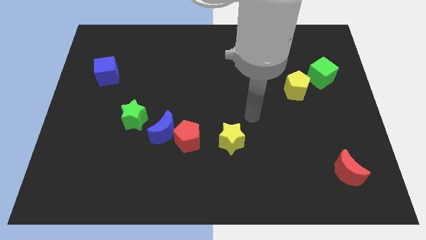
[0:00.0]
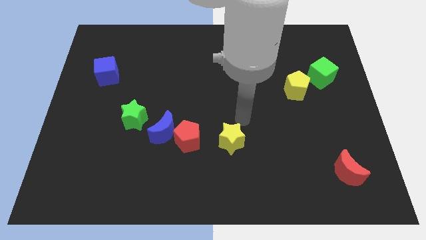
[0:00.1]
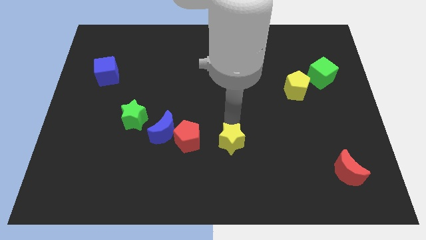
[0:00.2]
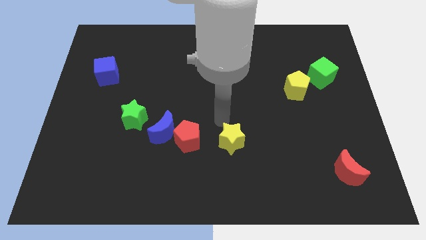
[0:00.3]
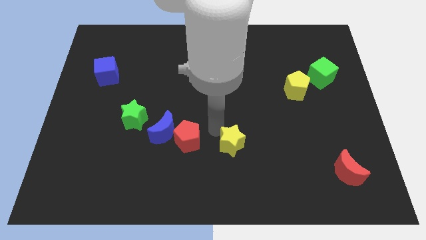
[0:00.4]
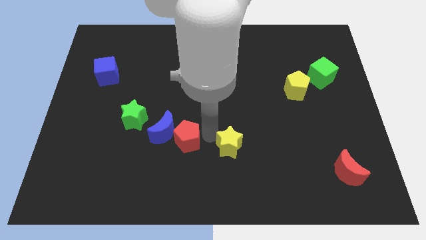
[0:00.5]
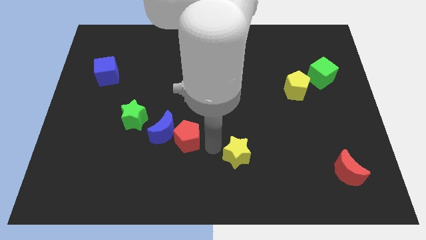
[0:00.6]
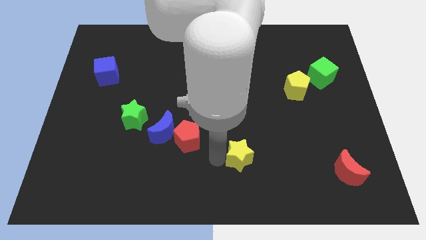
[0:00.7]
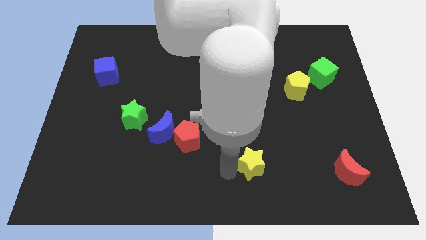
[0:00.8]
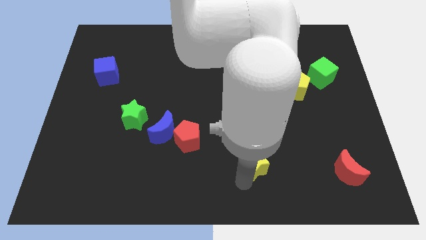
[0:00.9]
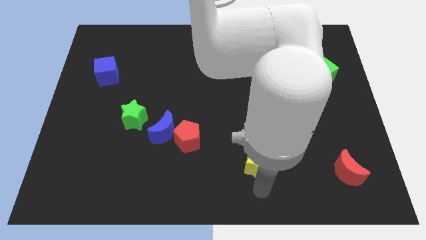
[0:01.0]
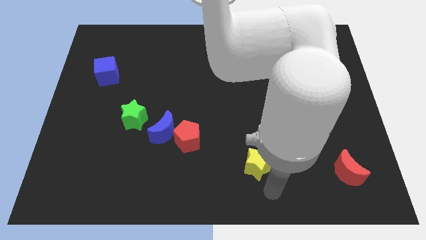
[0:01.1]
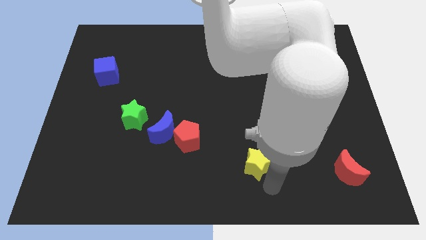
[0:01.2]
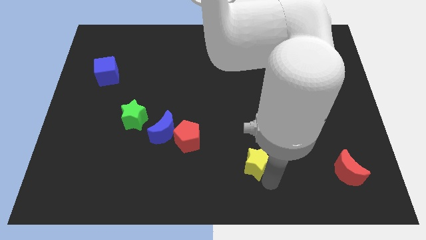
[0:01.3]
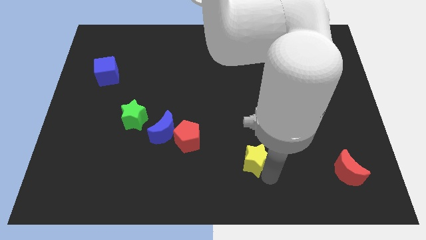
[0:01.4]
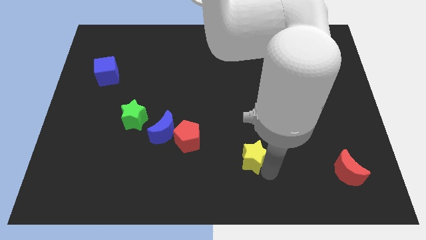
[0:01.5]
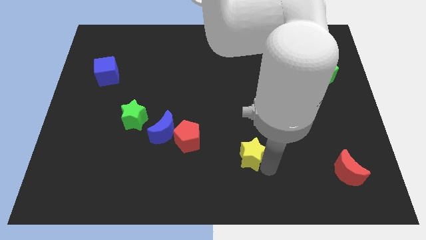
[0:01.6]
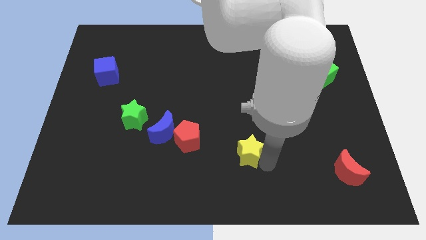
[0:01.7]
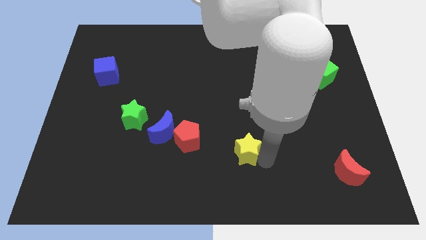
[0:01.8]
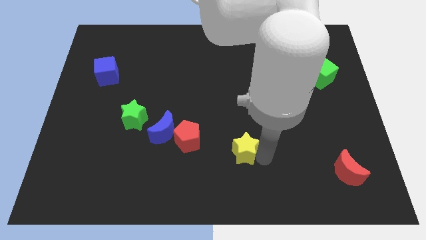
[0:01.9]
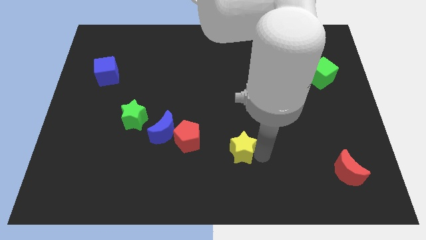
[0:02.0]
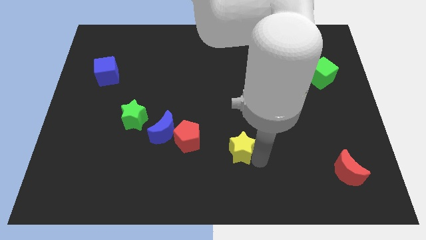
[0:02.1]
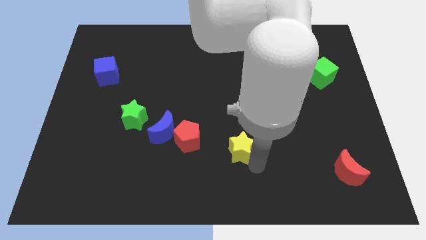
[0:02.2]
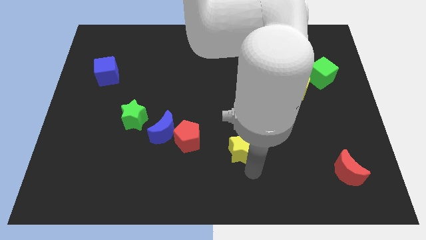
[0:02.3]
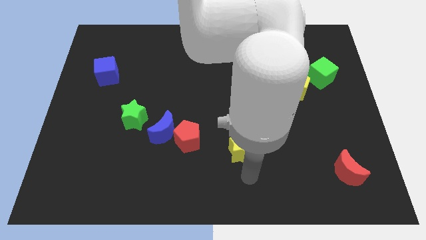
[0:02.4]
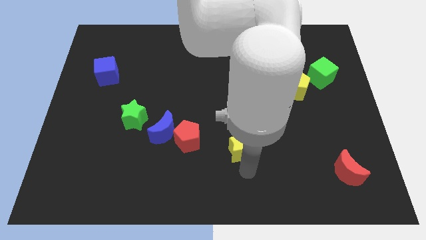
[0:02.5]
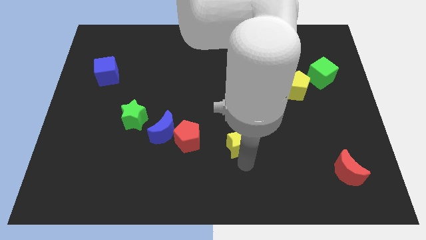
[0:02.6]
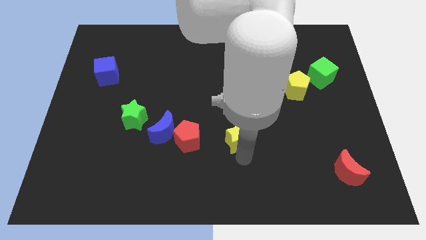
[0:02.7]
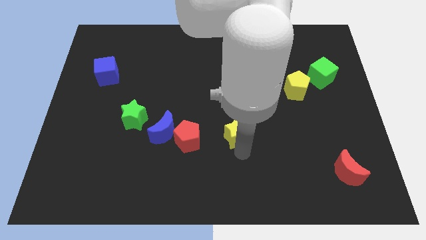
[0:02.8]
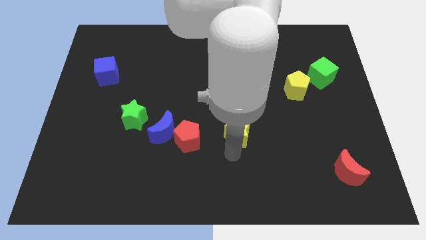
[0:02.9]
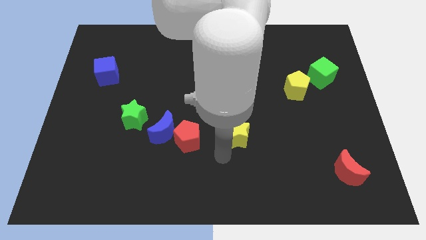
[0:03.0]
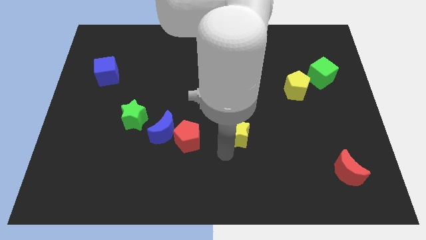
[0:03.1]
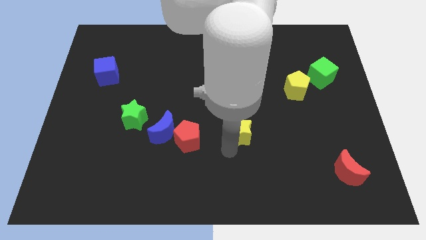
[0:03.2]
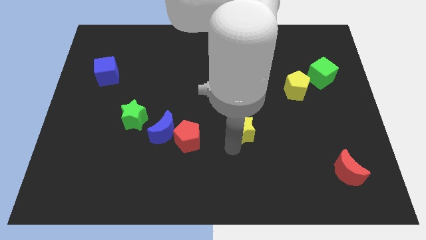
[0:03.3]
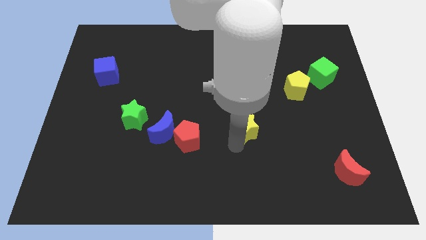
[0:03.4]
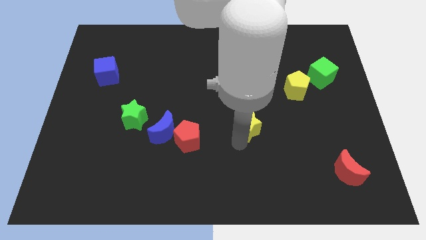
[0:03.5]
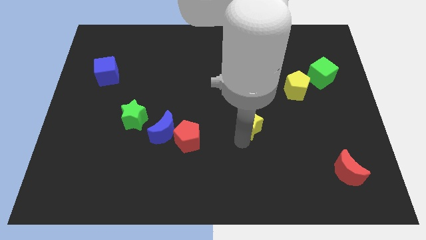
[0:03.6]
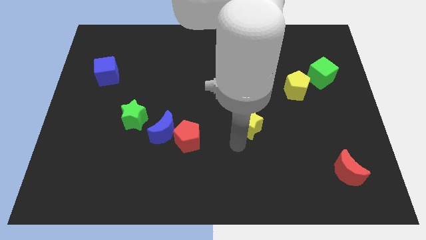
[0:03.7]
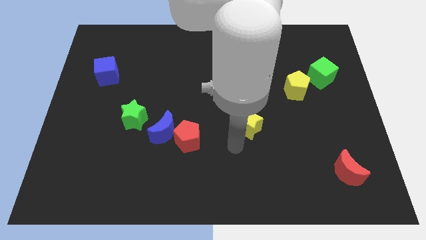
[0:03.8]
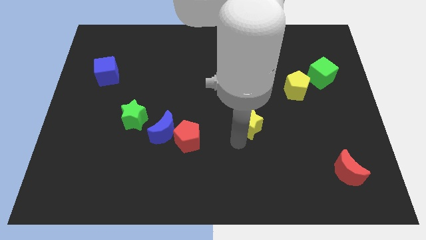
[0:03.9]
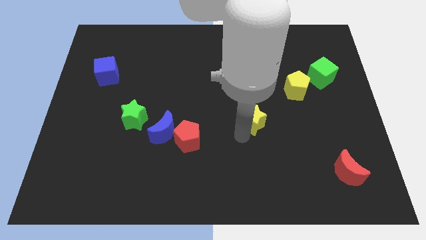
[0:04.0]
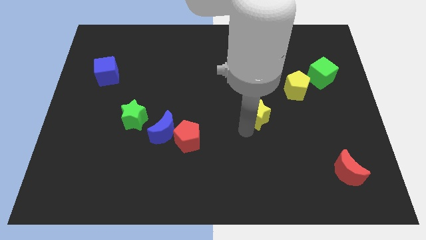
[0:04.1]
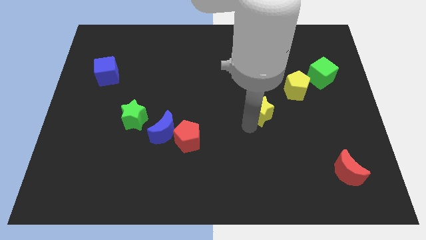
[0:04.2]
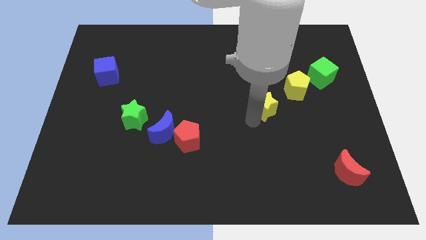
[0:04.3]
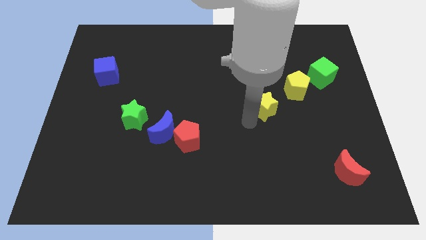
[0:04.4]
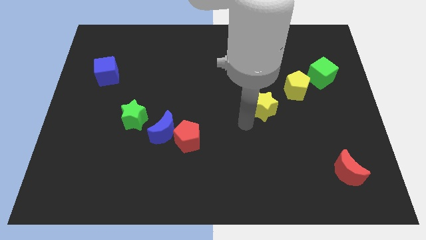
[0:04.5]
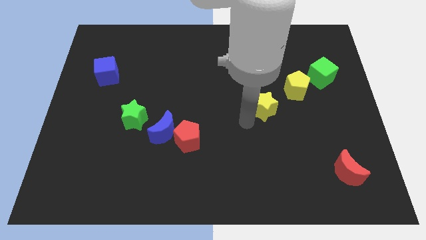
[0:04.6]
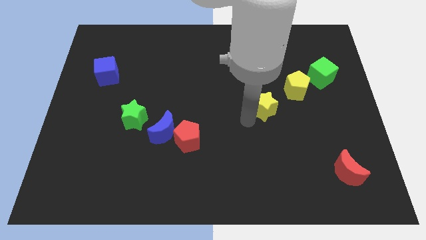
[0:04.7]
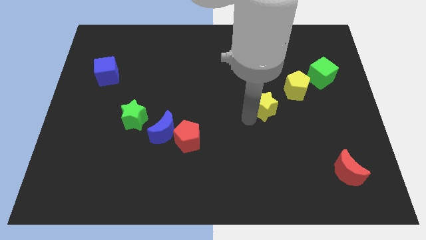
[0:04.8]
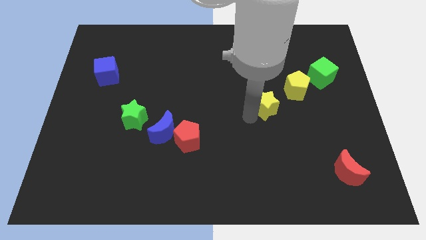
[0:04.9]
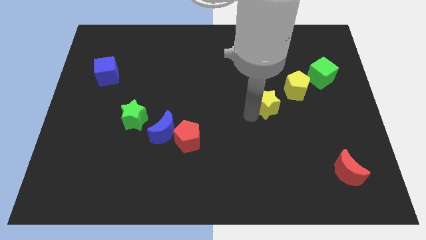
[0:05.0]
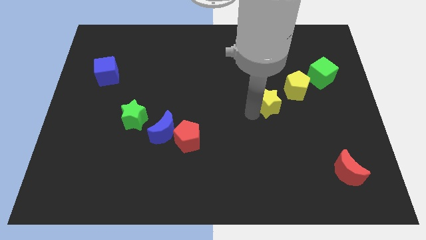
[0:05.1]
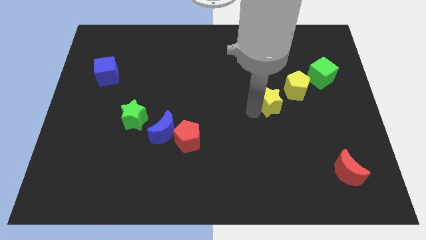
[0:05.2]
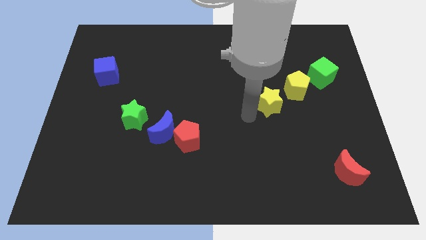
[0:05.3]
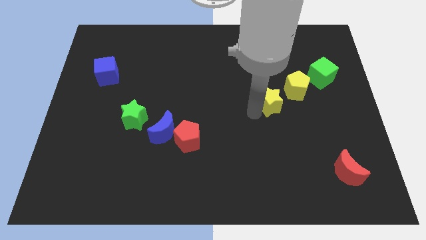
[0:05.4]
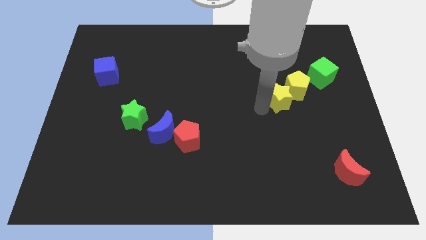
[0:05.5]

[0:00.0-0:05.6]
push the yellow star close to the yellow pentagon

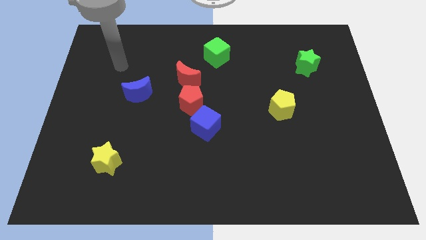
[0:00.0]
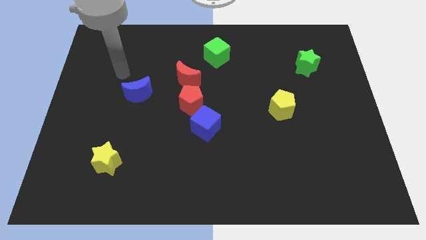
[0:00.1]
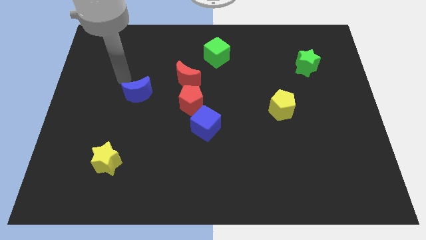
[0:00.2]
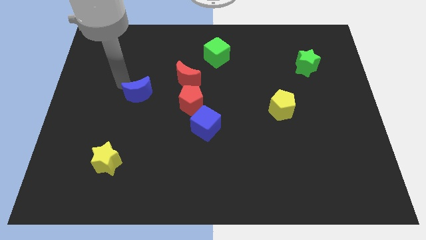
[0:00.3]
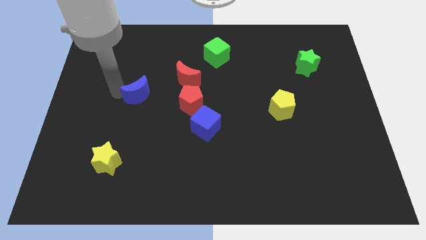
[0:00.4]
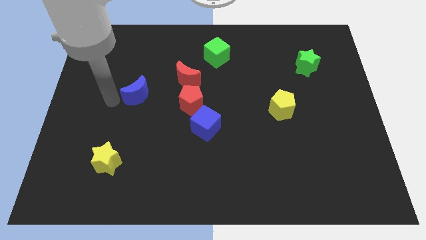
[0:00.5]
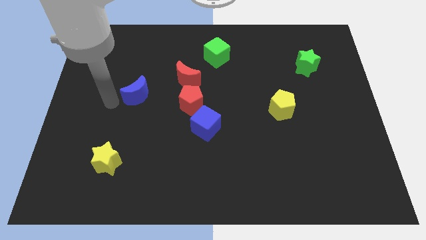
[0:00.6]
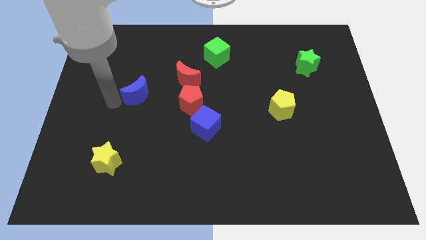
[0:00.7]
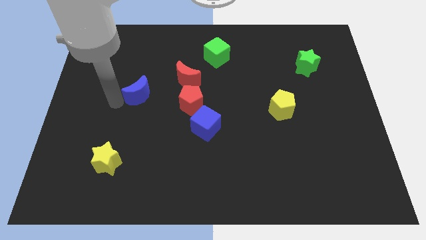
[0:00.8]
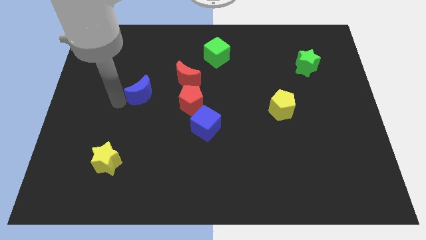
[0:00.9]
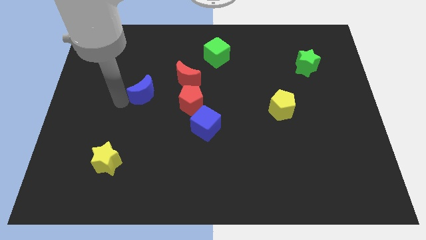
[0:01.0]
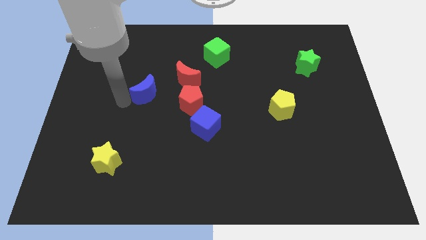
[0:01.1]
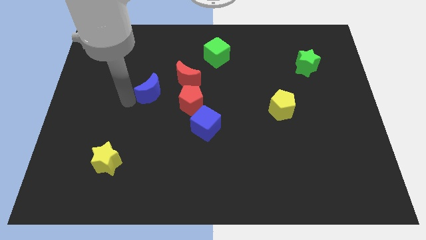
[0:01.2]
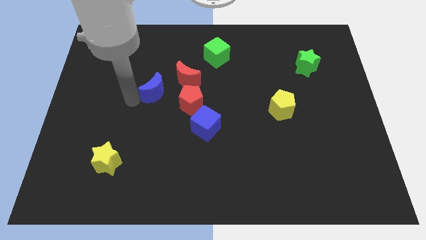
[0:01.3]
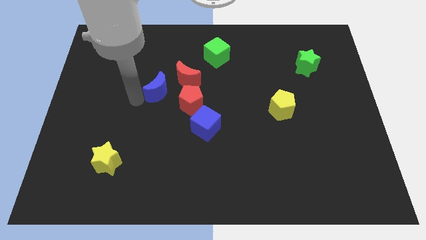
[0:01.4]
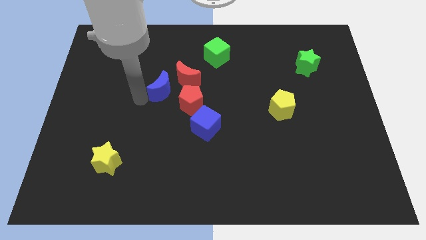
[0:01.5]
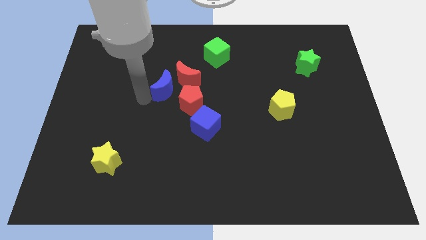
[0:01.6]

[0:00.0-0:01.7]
slide the blue moon towards the red moon
